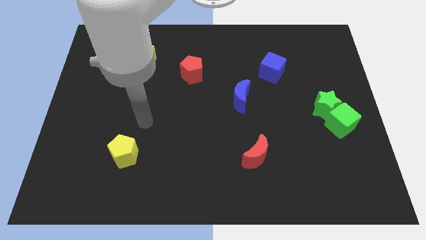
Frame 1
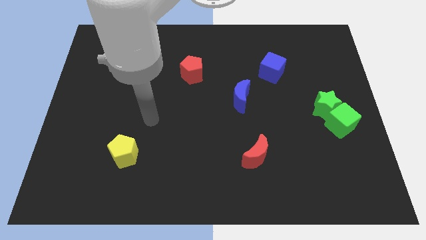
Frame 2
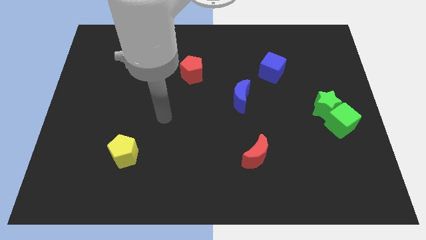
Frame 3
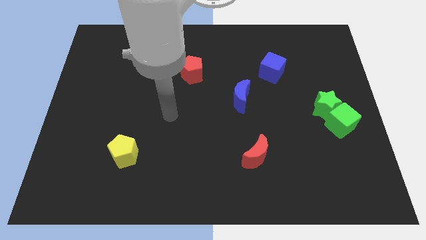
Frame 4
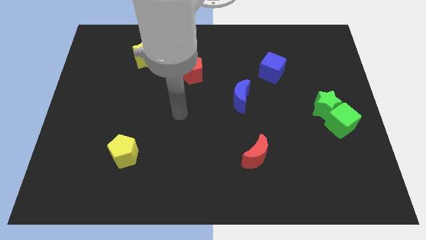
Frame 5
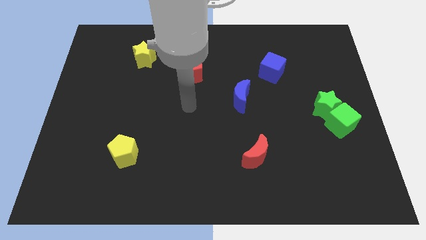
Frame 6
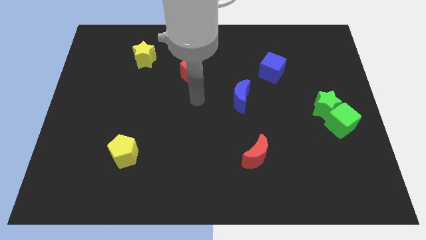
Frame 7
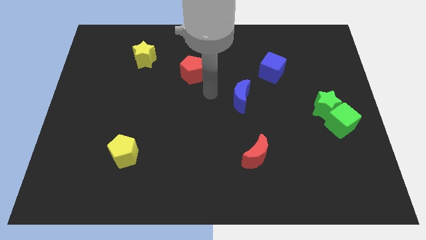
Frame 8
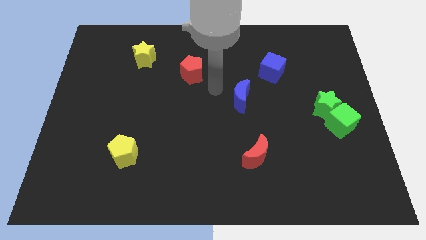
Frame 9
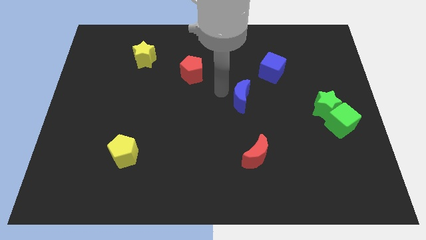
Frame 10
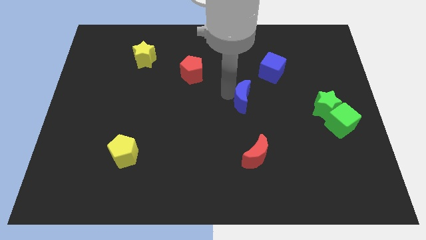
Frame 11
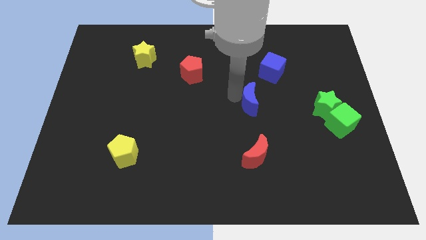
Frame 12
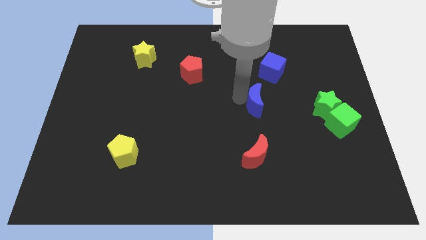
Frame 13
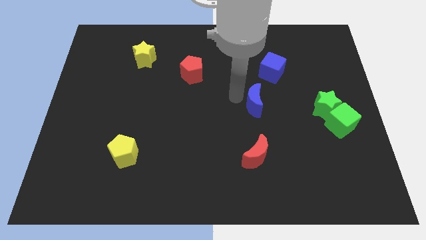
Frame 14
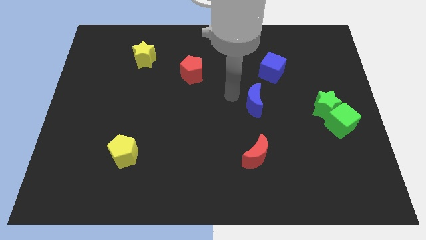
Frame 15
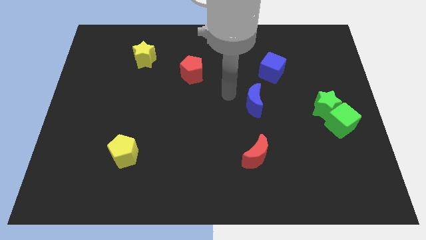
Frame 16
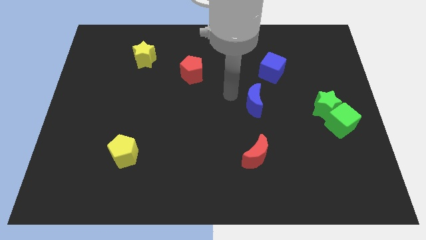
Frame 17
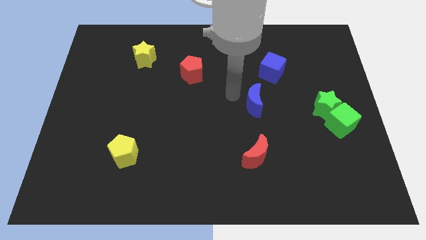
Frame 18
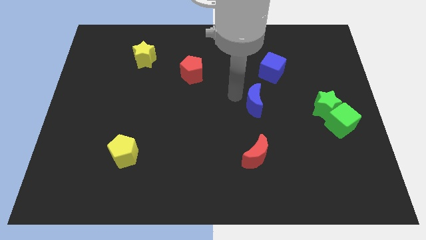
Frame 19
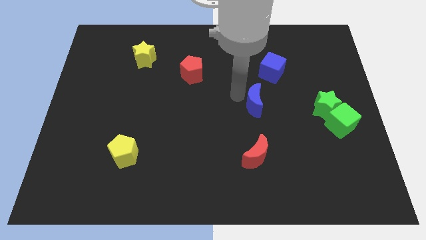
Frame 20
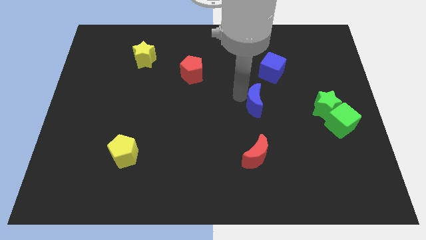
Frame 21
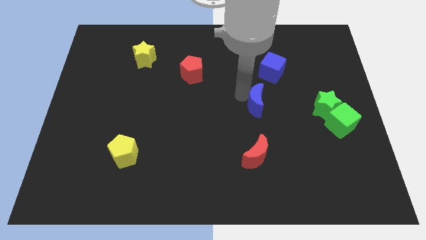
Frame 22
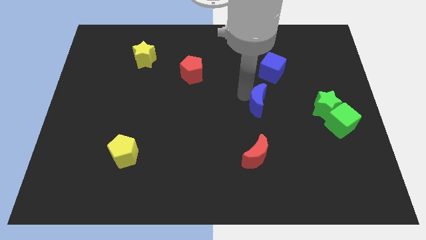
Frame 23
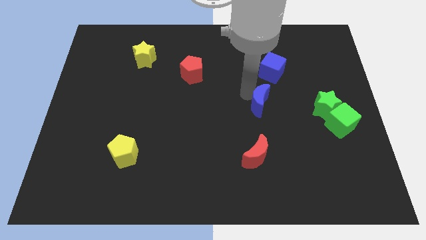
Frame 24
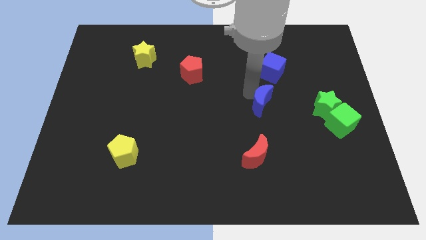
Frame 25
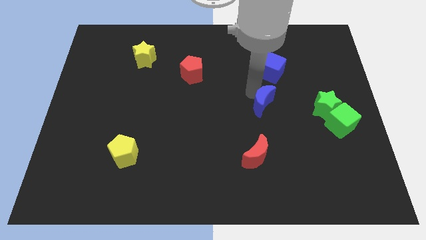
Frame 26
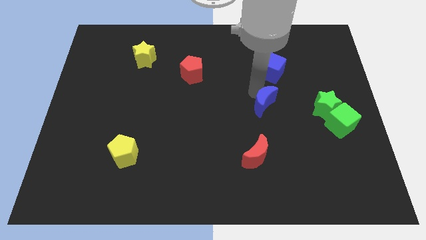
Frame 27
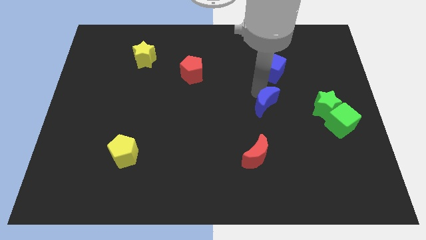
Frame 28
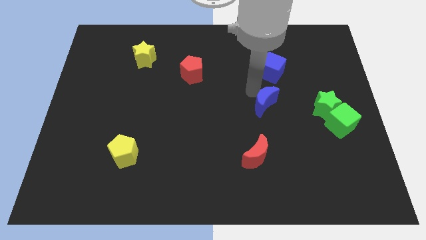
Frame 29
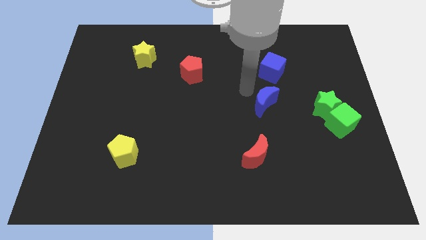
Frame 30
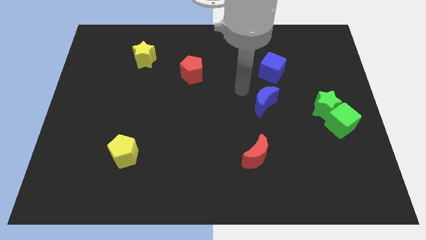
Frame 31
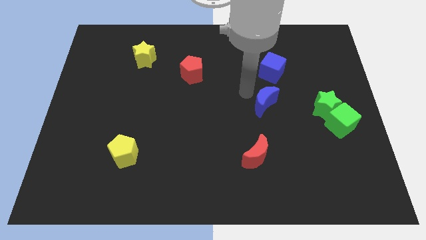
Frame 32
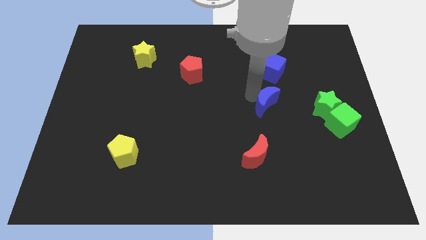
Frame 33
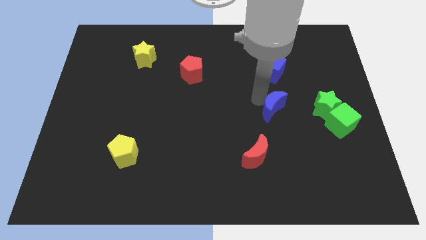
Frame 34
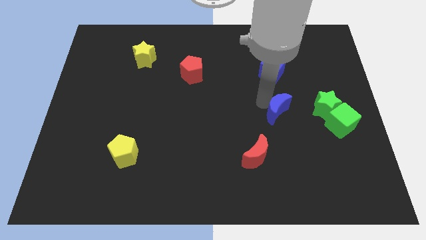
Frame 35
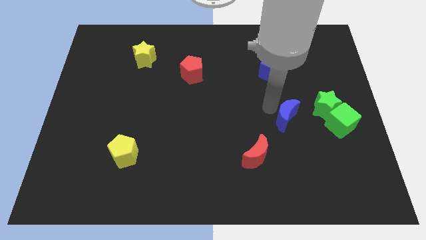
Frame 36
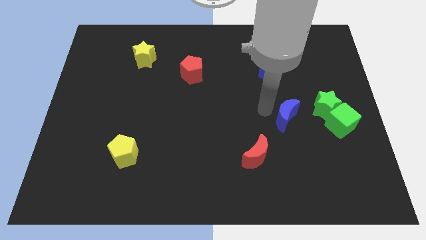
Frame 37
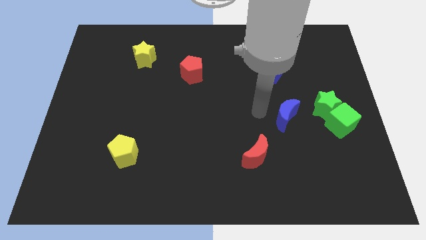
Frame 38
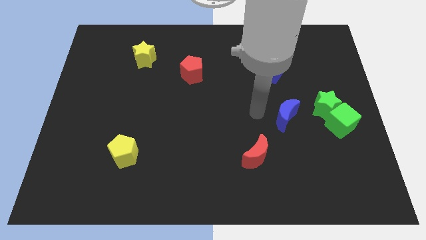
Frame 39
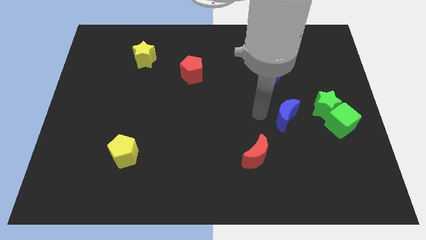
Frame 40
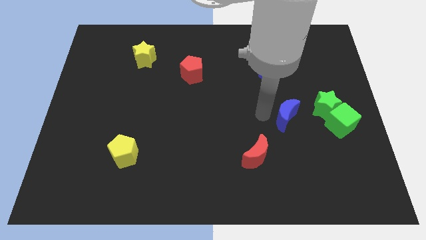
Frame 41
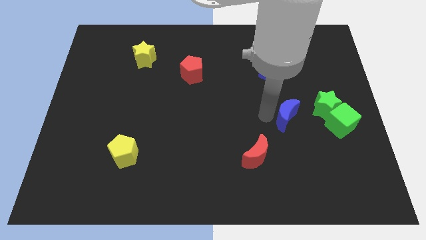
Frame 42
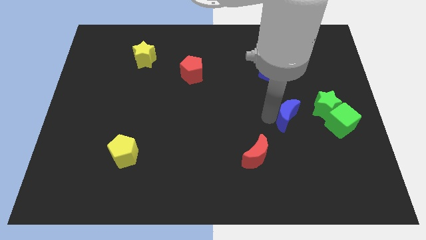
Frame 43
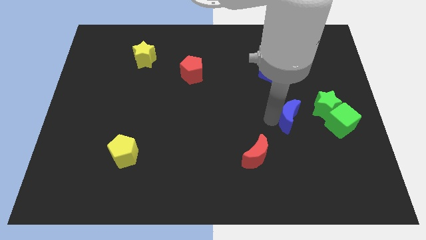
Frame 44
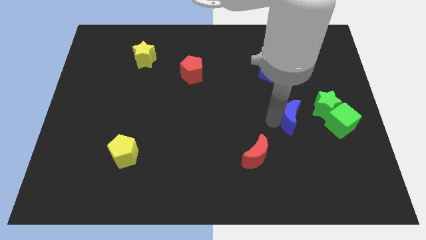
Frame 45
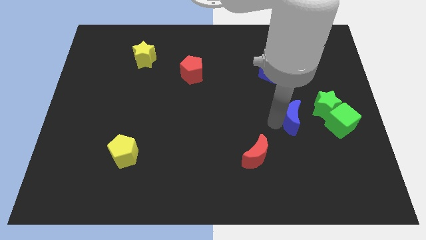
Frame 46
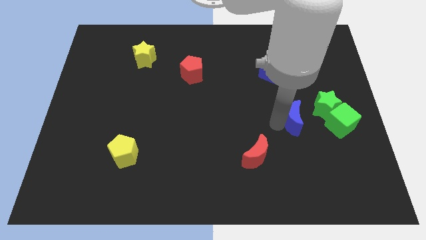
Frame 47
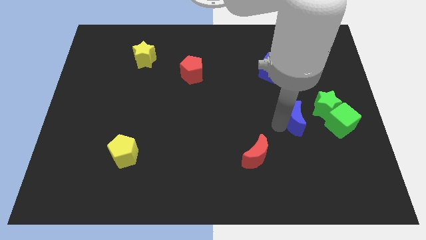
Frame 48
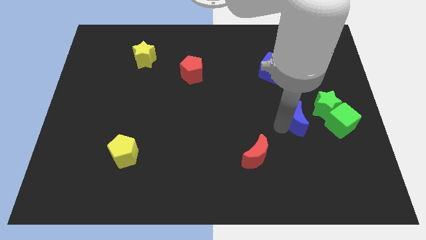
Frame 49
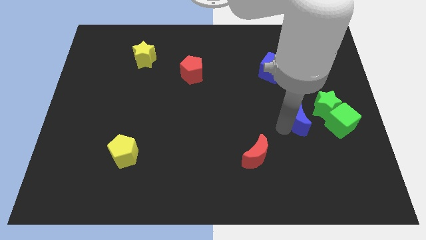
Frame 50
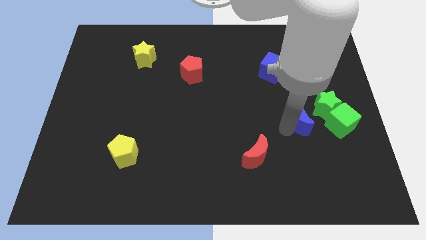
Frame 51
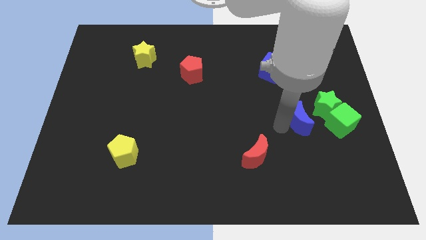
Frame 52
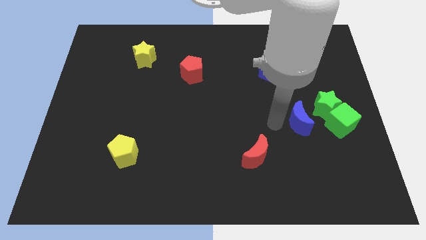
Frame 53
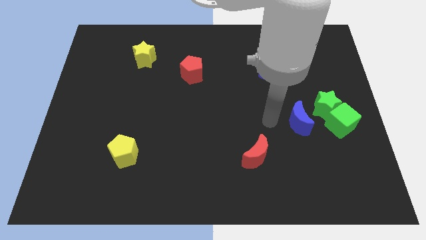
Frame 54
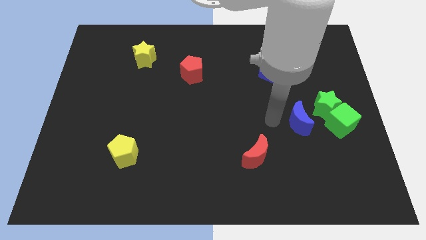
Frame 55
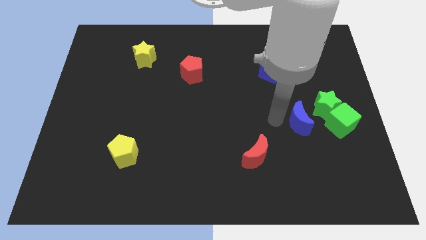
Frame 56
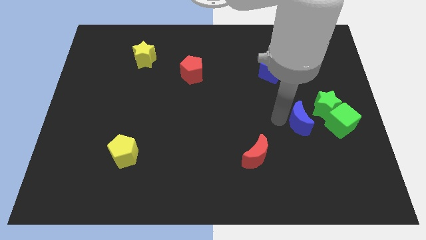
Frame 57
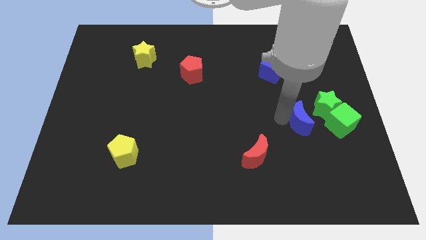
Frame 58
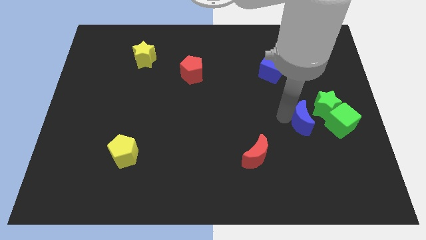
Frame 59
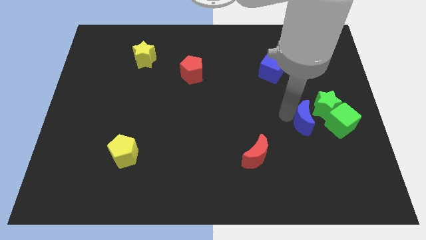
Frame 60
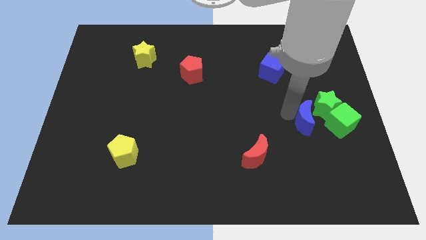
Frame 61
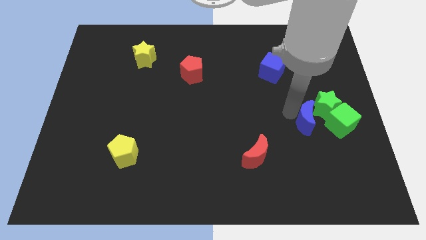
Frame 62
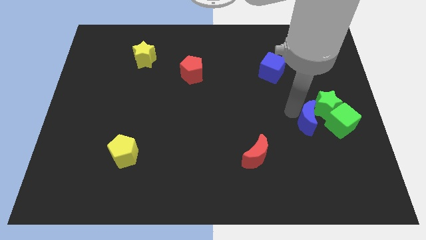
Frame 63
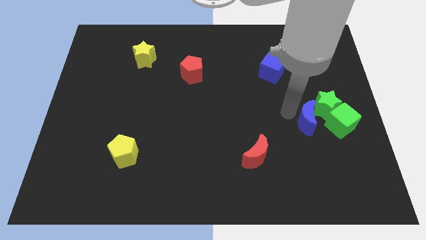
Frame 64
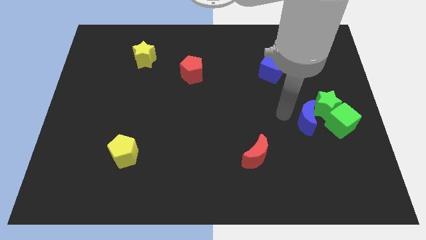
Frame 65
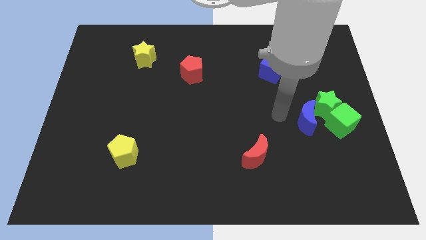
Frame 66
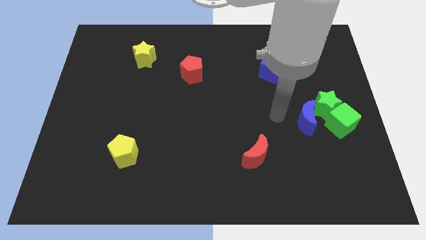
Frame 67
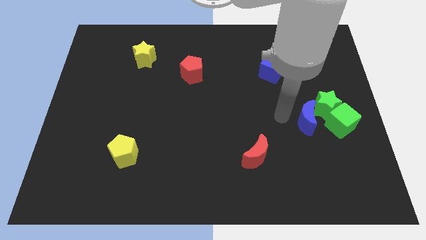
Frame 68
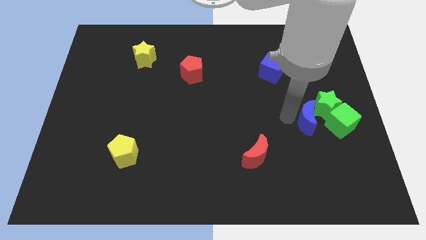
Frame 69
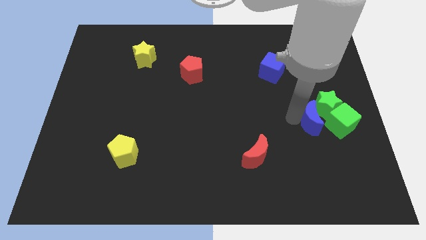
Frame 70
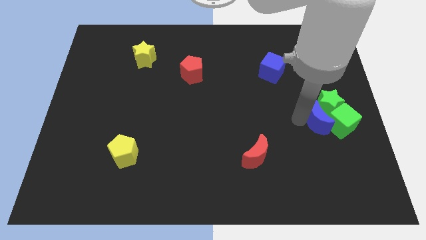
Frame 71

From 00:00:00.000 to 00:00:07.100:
put the blue moon to the green cube

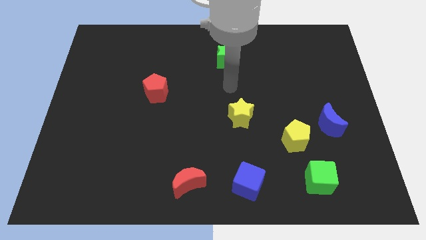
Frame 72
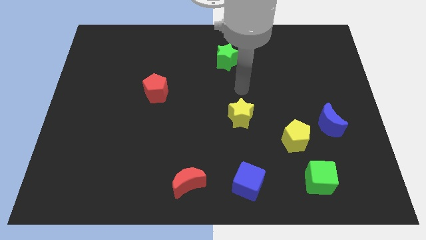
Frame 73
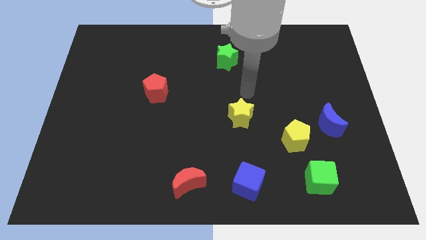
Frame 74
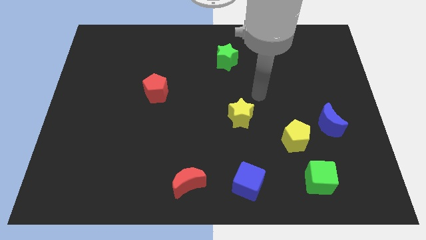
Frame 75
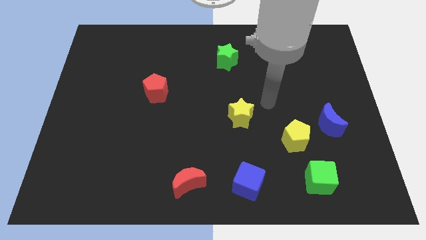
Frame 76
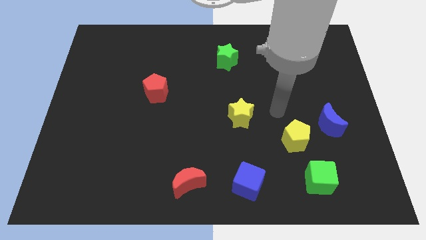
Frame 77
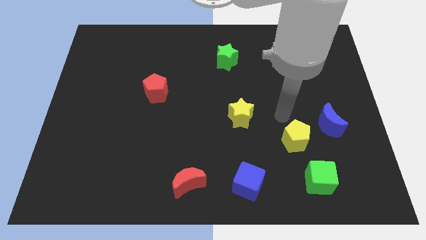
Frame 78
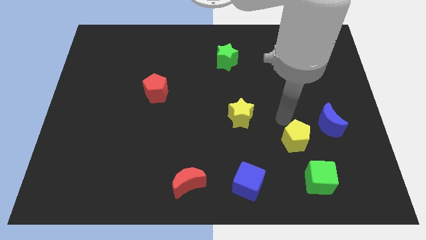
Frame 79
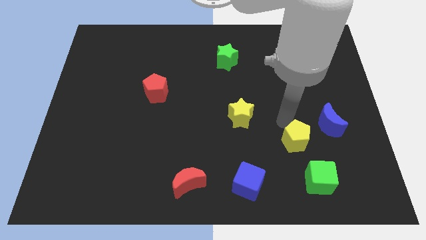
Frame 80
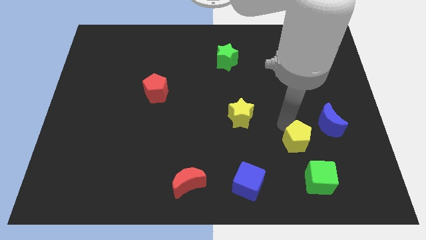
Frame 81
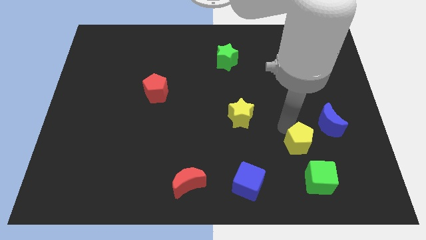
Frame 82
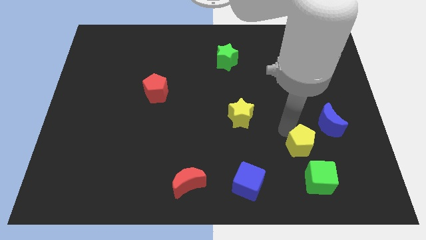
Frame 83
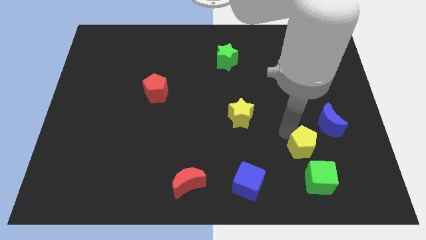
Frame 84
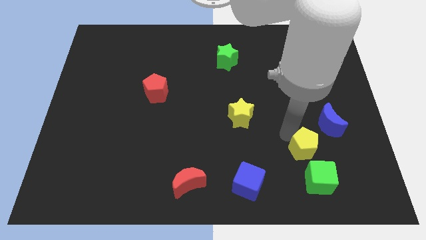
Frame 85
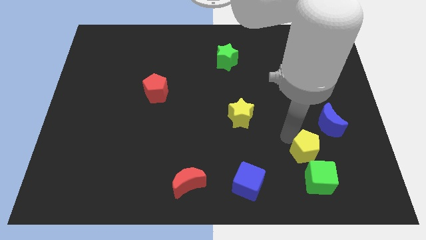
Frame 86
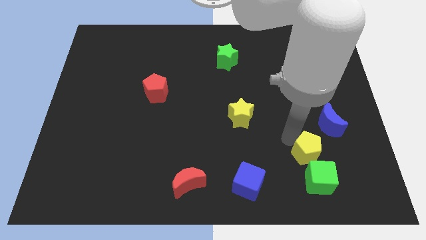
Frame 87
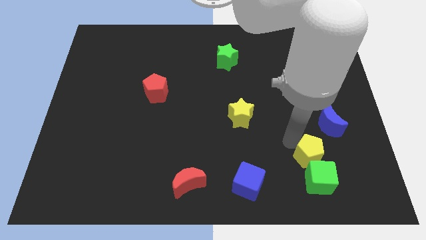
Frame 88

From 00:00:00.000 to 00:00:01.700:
slide the yellow pentagon to the green cube
